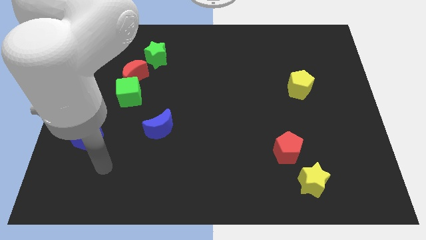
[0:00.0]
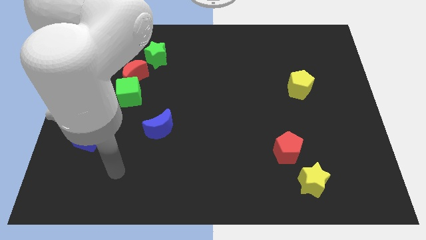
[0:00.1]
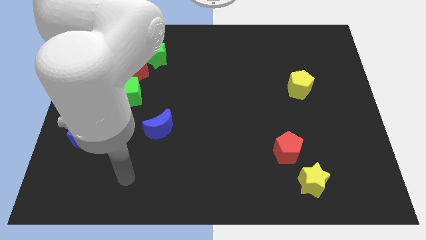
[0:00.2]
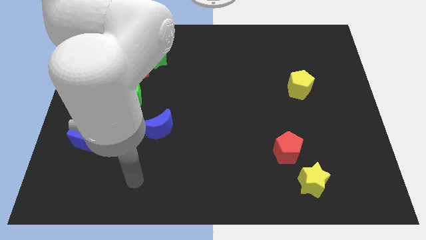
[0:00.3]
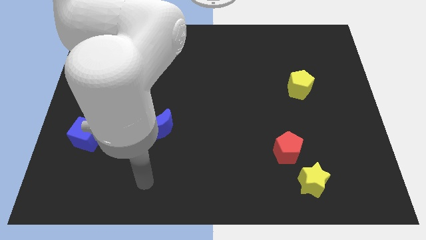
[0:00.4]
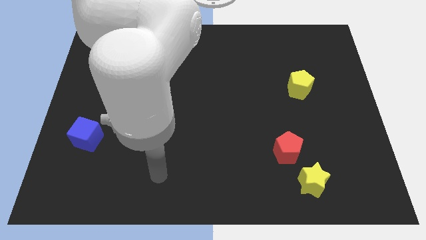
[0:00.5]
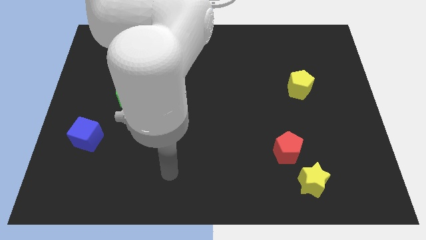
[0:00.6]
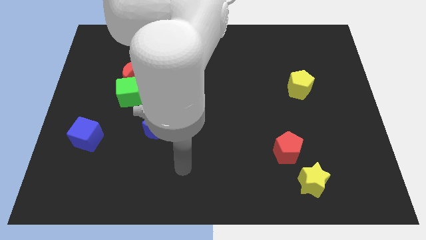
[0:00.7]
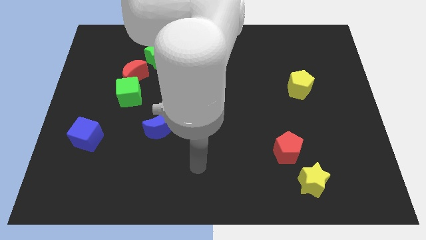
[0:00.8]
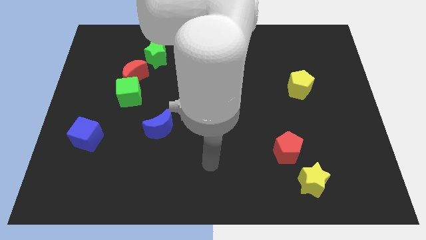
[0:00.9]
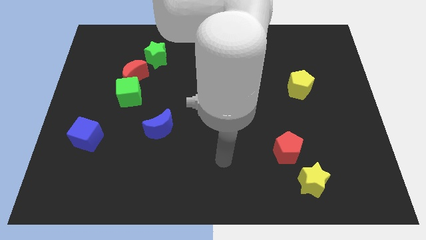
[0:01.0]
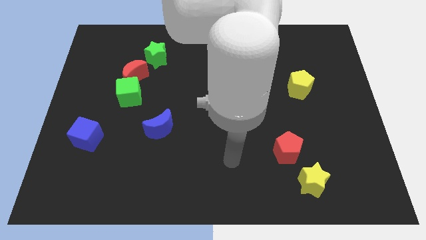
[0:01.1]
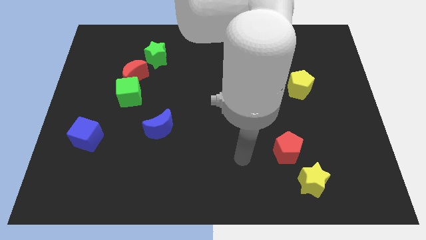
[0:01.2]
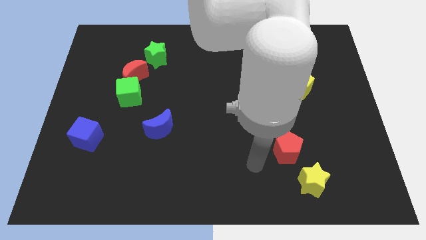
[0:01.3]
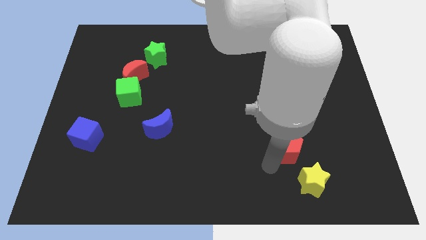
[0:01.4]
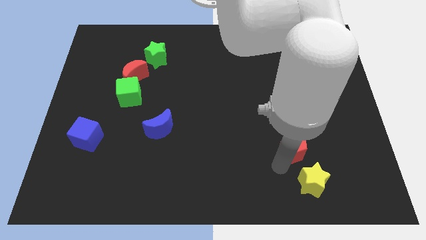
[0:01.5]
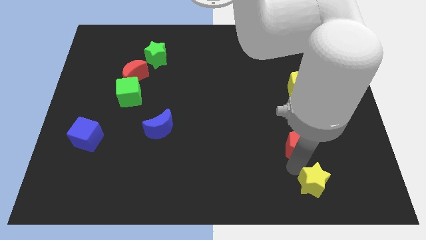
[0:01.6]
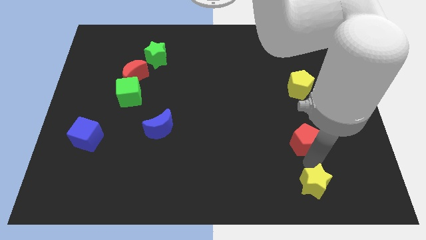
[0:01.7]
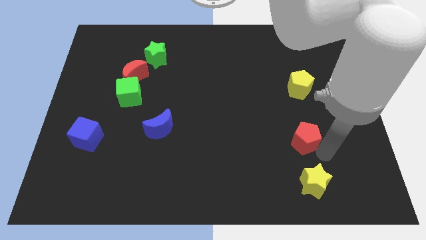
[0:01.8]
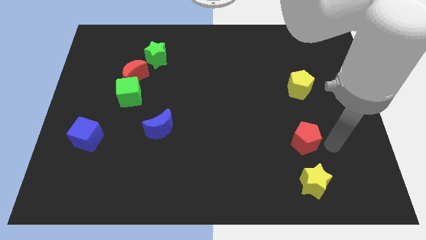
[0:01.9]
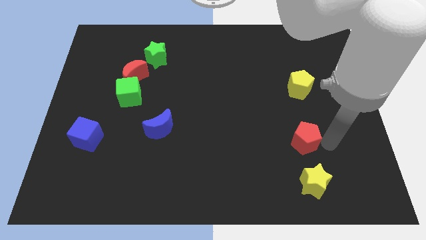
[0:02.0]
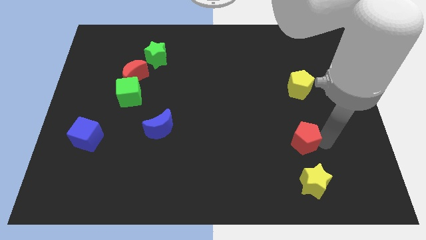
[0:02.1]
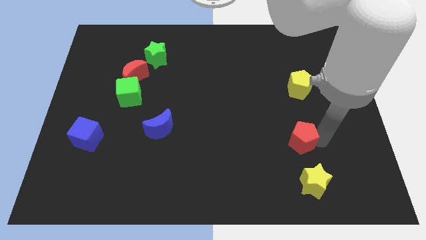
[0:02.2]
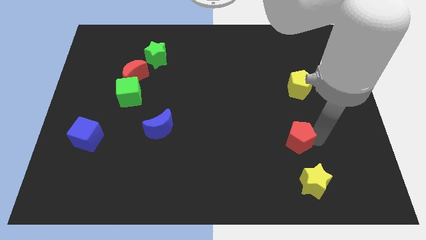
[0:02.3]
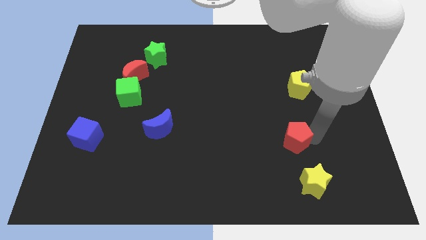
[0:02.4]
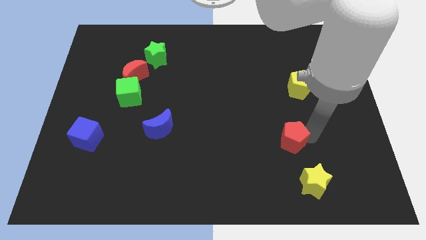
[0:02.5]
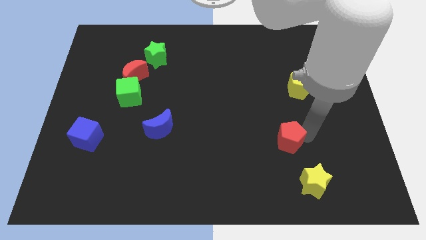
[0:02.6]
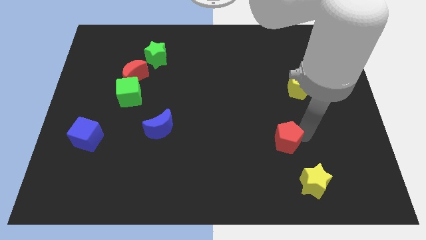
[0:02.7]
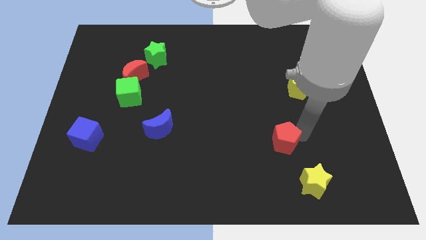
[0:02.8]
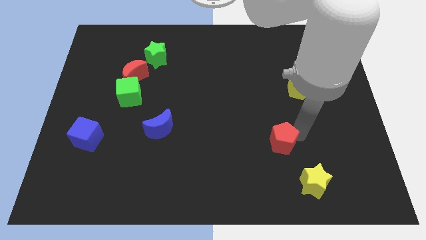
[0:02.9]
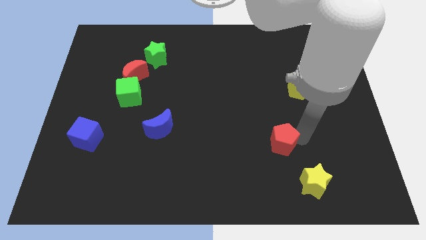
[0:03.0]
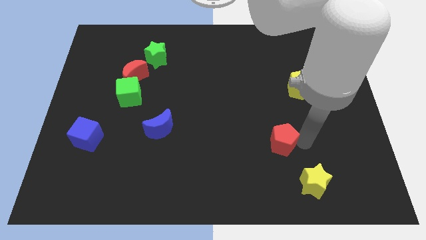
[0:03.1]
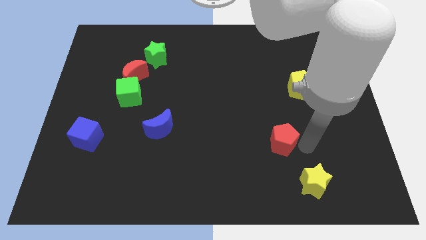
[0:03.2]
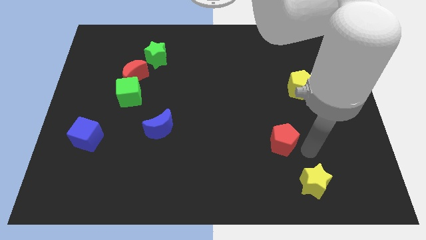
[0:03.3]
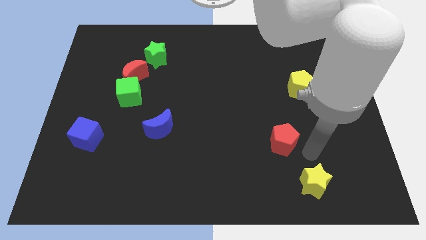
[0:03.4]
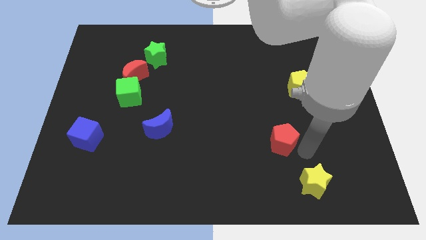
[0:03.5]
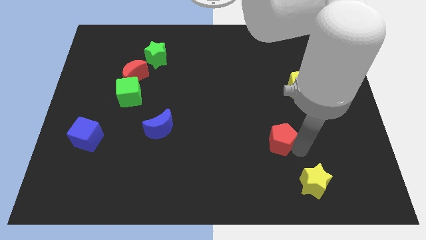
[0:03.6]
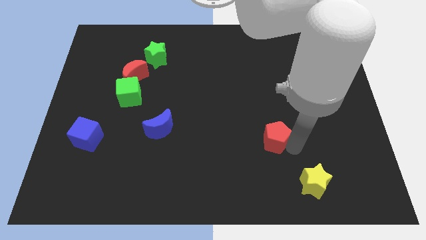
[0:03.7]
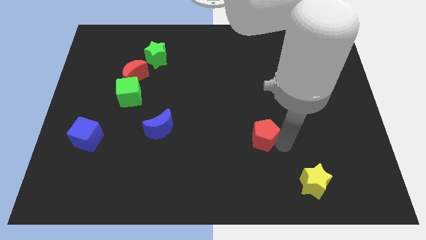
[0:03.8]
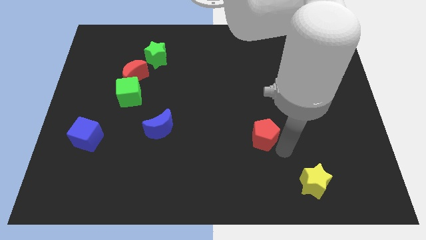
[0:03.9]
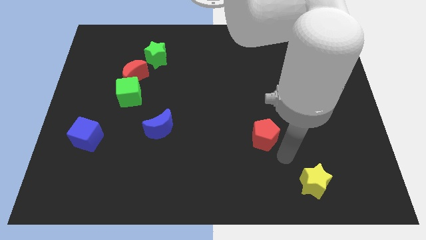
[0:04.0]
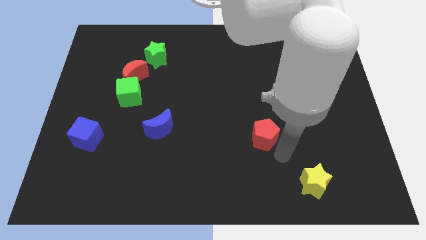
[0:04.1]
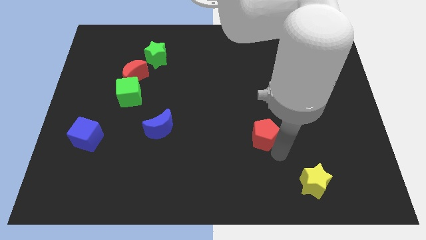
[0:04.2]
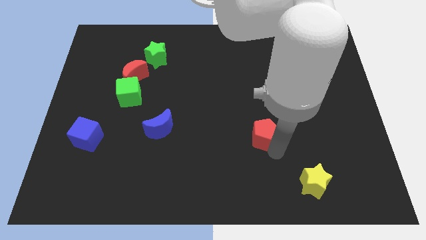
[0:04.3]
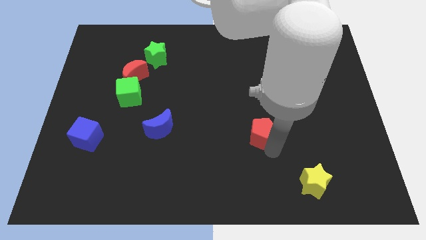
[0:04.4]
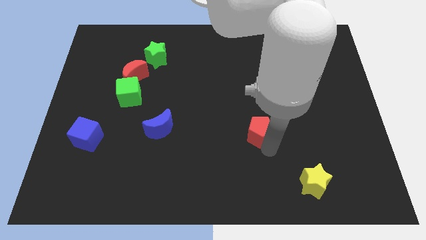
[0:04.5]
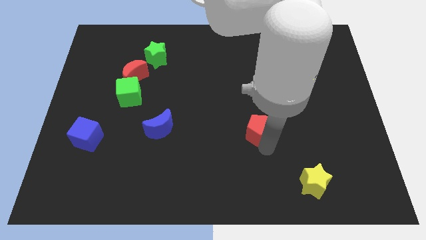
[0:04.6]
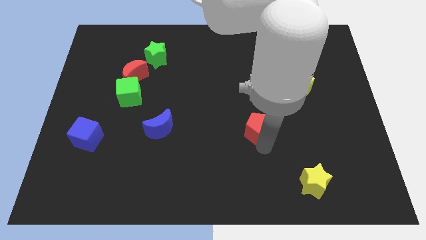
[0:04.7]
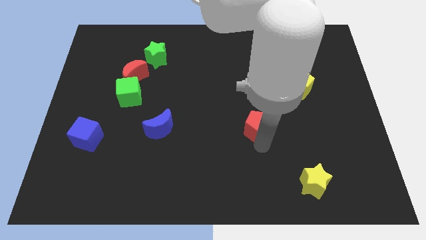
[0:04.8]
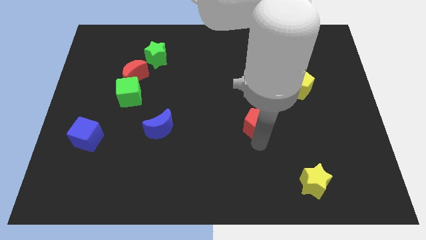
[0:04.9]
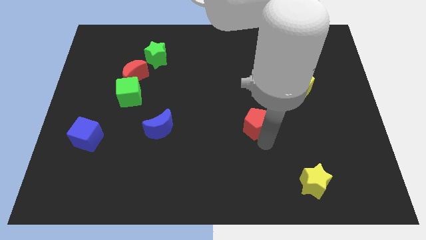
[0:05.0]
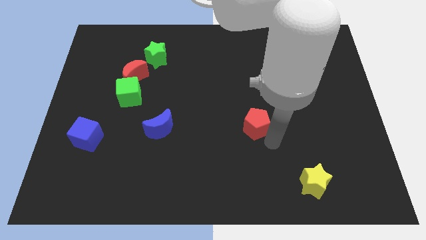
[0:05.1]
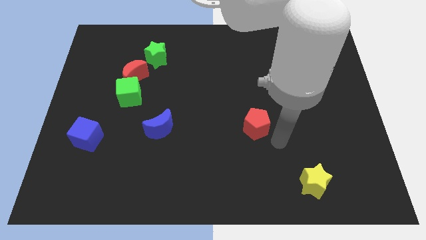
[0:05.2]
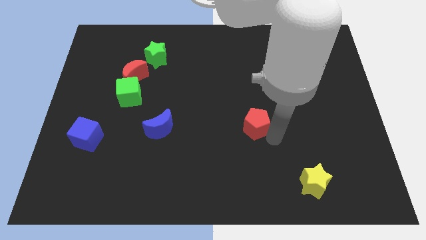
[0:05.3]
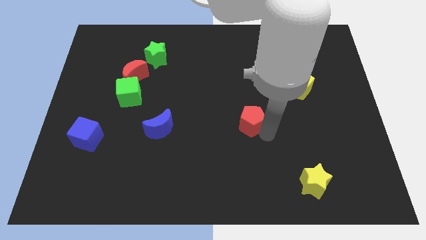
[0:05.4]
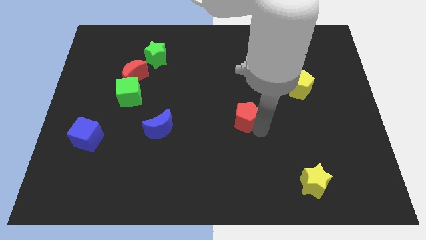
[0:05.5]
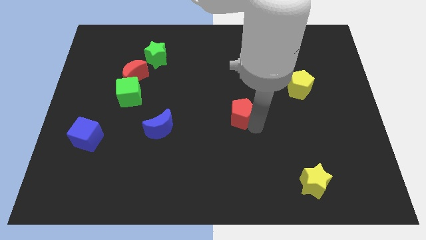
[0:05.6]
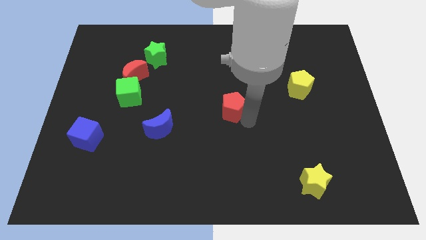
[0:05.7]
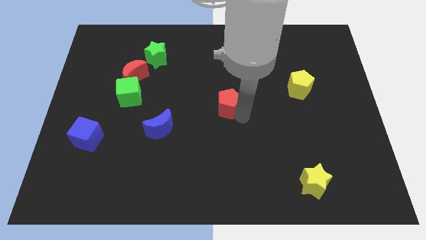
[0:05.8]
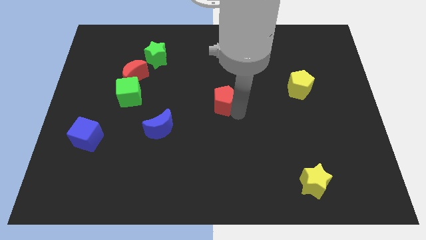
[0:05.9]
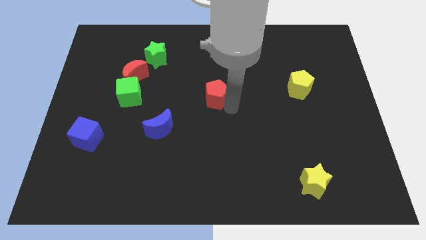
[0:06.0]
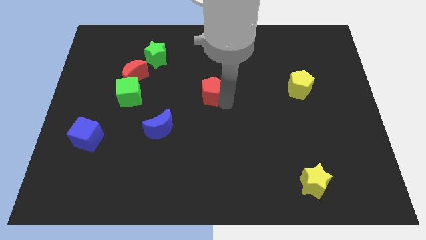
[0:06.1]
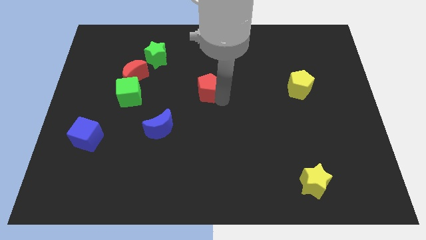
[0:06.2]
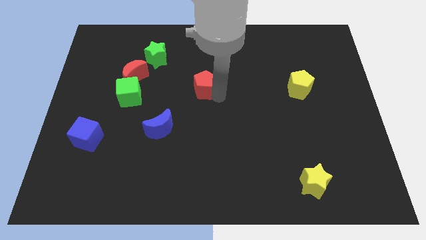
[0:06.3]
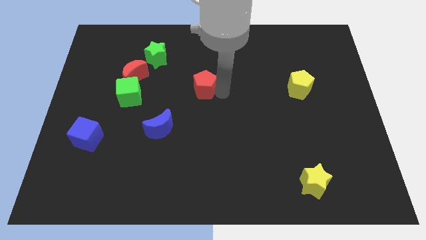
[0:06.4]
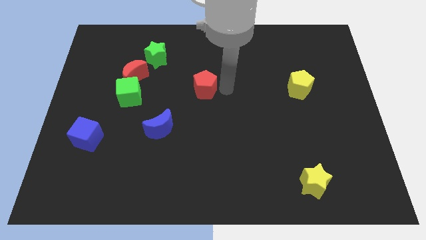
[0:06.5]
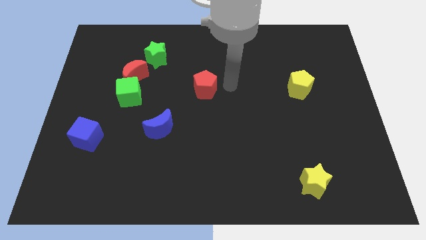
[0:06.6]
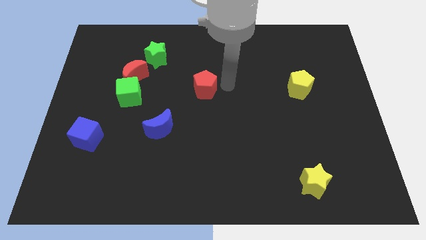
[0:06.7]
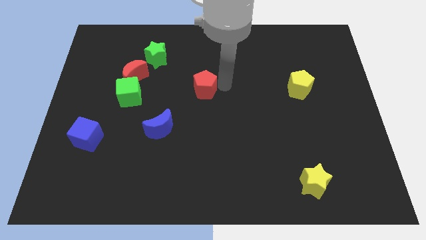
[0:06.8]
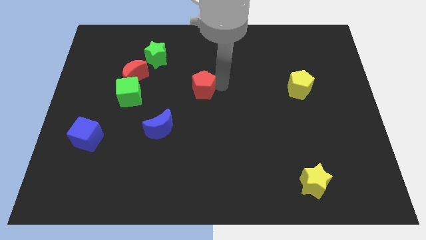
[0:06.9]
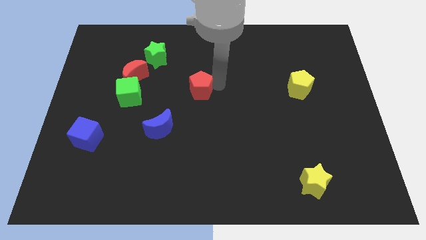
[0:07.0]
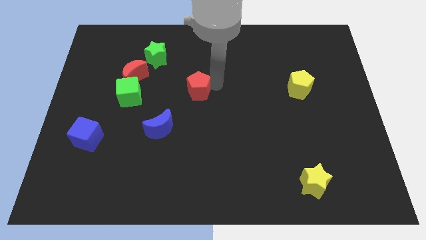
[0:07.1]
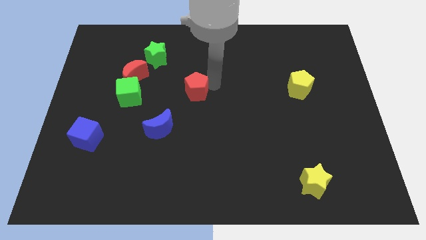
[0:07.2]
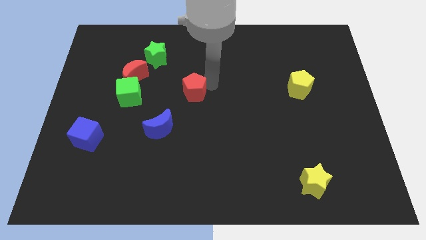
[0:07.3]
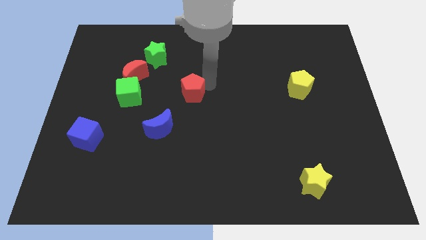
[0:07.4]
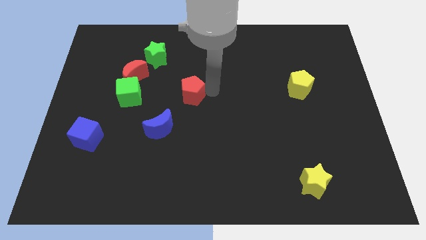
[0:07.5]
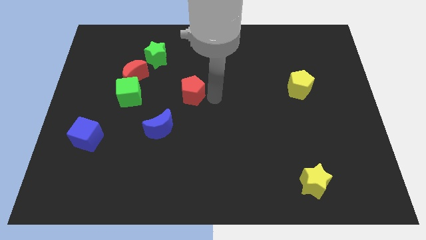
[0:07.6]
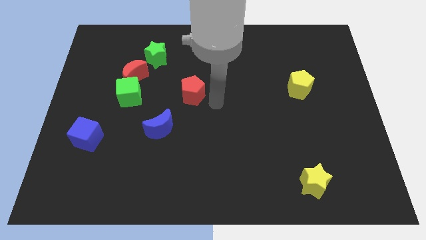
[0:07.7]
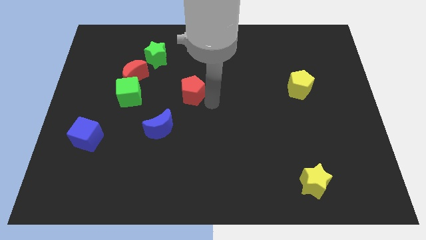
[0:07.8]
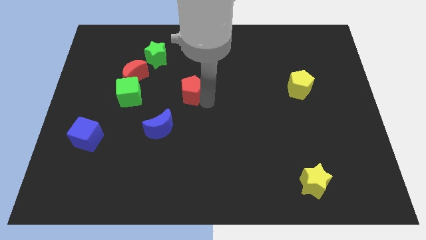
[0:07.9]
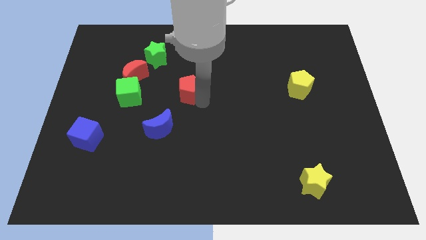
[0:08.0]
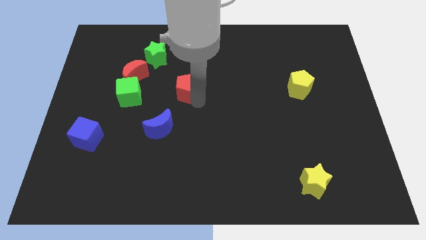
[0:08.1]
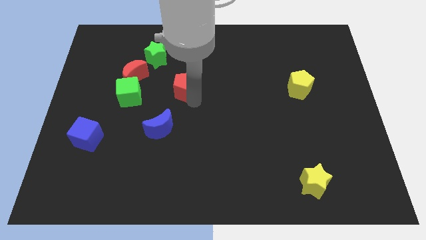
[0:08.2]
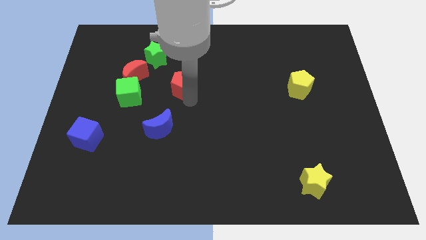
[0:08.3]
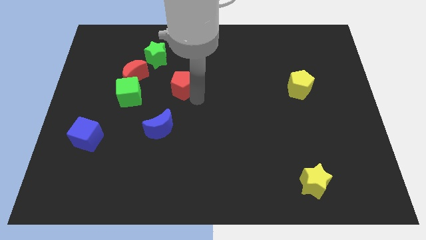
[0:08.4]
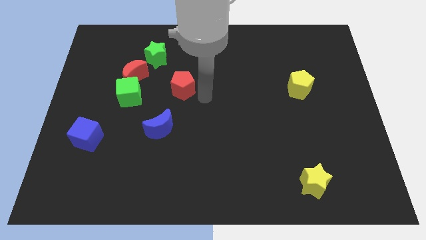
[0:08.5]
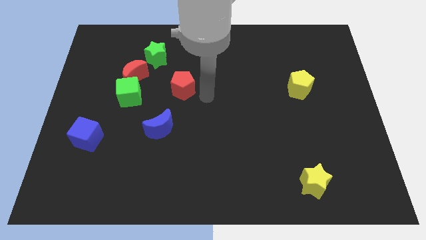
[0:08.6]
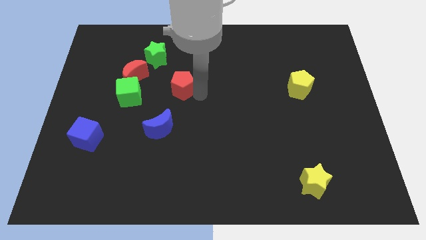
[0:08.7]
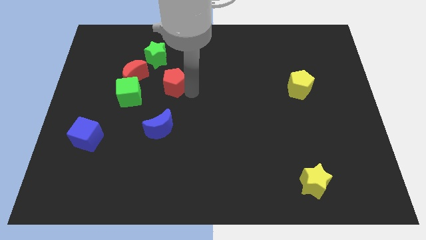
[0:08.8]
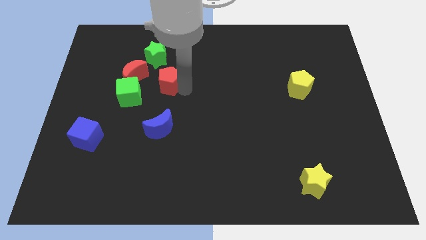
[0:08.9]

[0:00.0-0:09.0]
push the red pentagon to the top right side of the green cube
